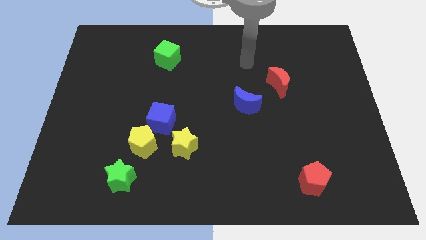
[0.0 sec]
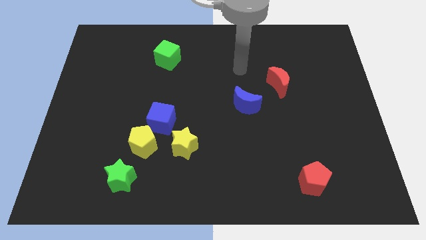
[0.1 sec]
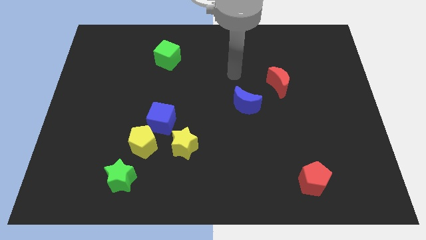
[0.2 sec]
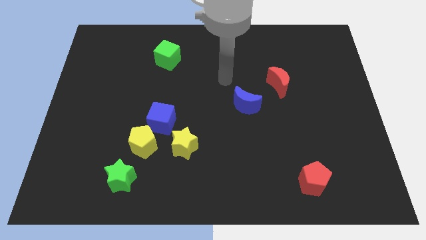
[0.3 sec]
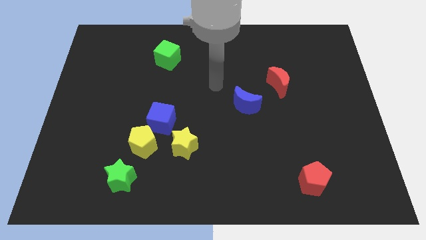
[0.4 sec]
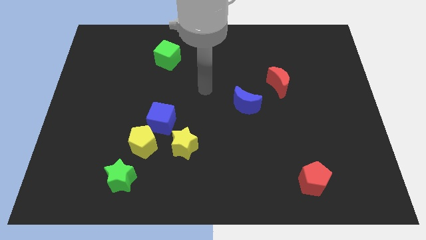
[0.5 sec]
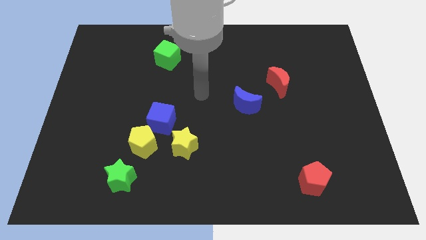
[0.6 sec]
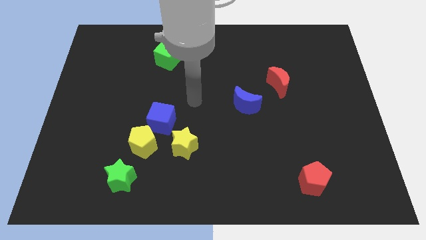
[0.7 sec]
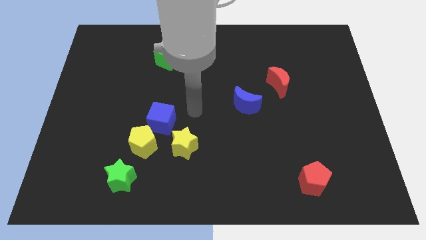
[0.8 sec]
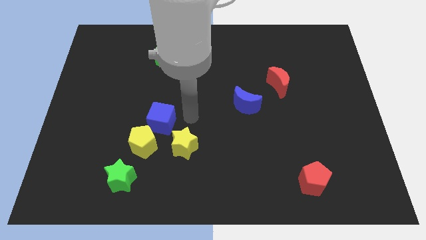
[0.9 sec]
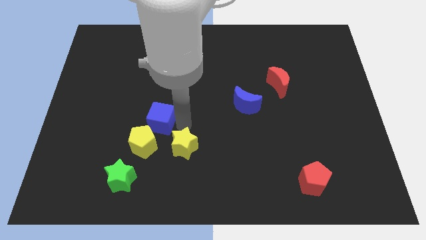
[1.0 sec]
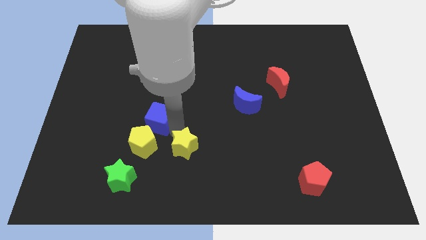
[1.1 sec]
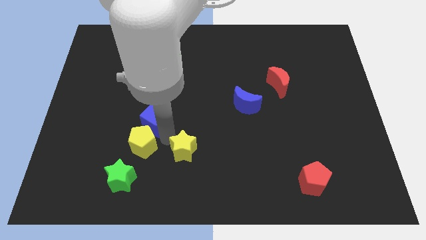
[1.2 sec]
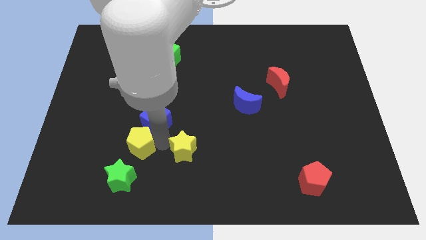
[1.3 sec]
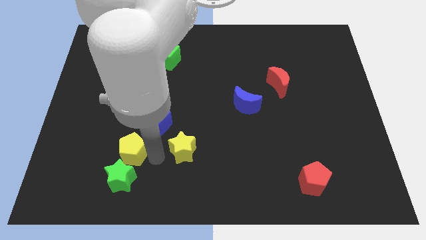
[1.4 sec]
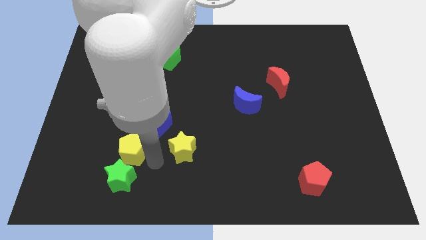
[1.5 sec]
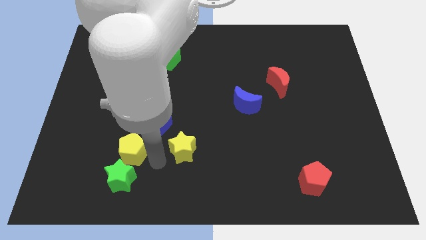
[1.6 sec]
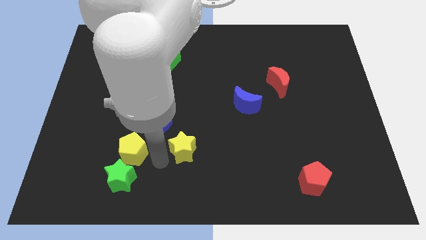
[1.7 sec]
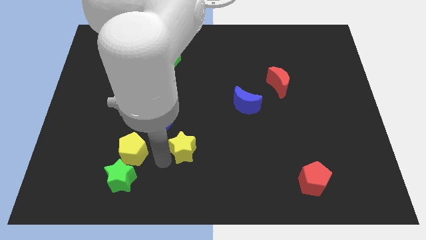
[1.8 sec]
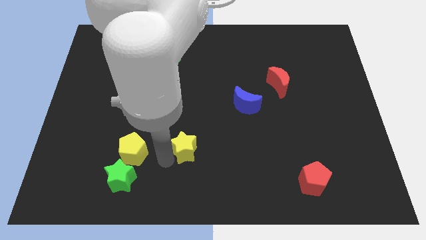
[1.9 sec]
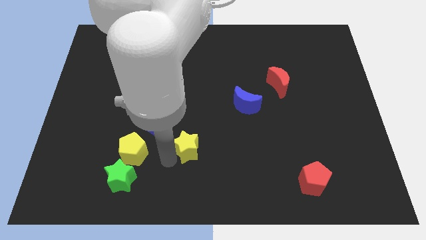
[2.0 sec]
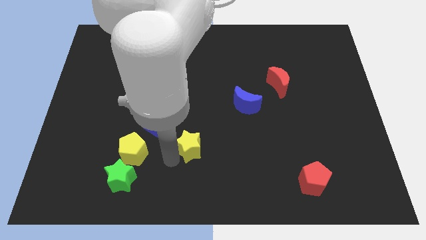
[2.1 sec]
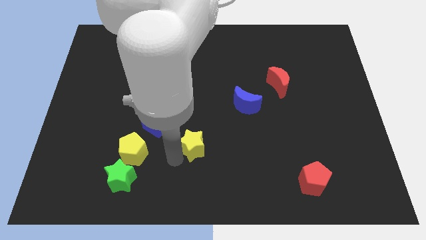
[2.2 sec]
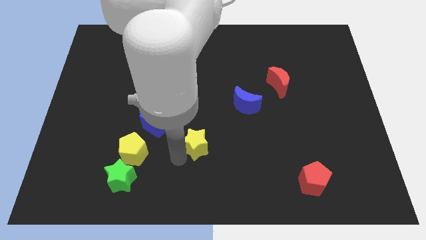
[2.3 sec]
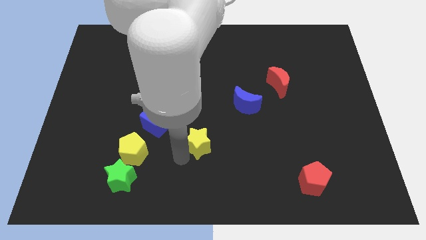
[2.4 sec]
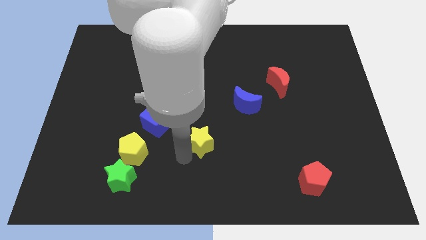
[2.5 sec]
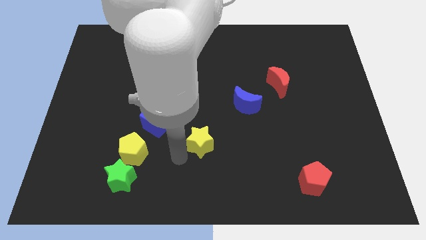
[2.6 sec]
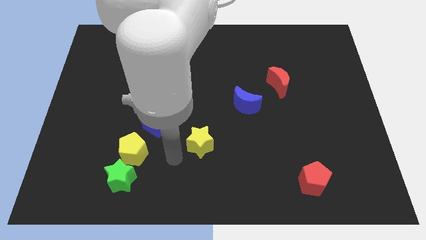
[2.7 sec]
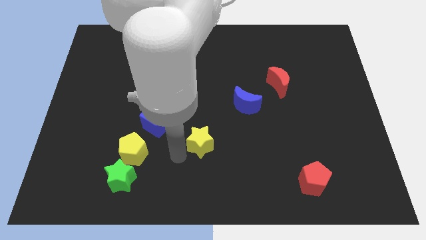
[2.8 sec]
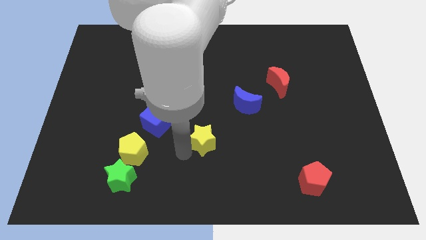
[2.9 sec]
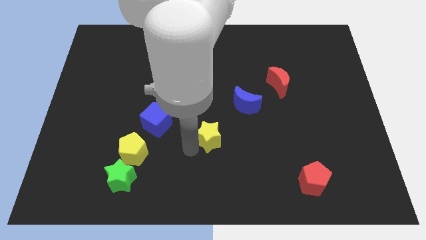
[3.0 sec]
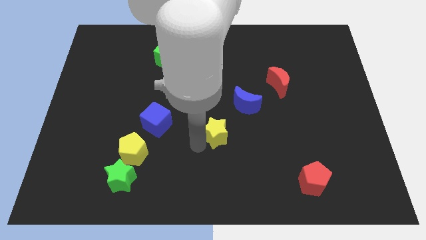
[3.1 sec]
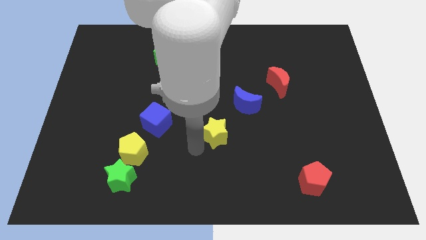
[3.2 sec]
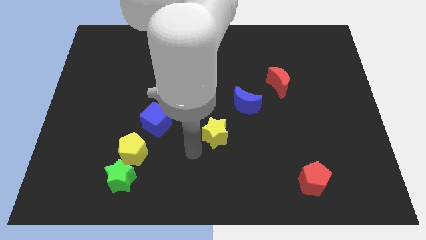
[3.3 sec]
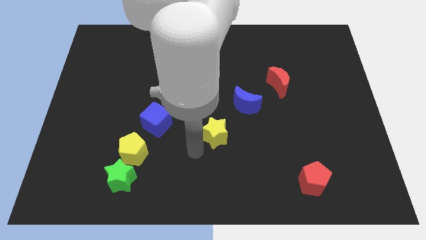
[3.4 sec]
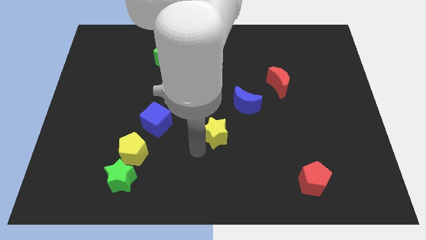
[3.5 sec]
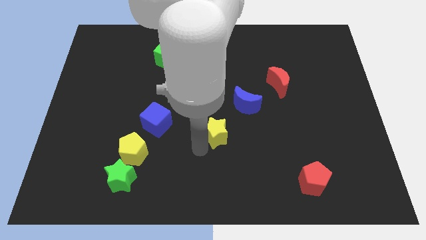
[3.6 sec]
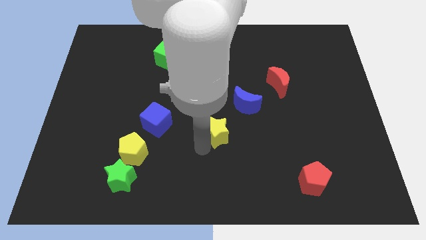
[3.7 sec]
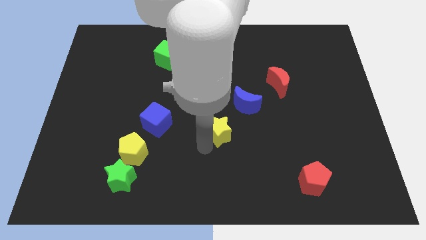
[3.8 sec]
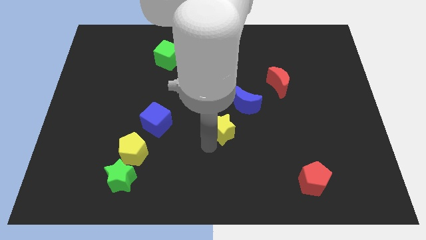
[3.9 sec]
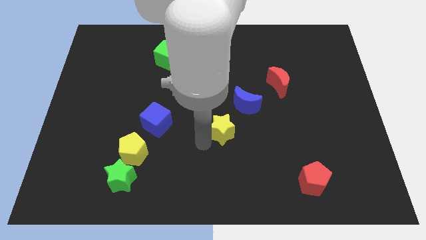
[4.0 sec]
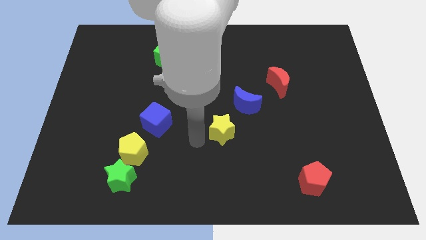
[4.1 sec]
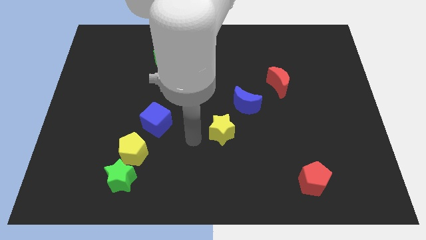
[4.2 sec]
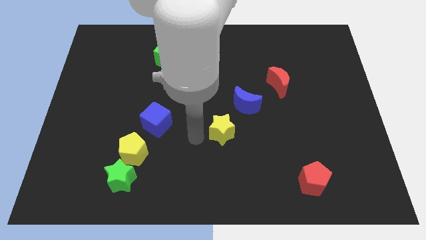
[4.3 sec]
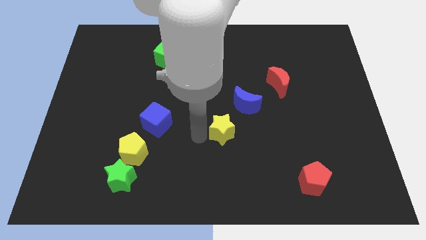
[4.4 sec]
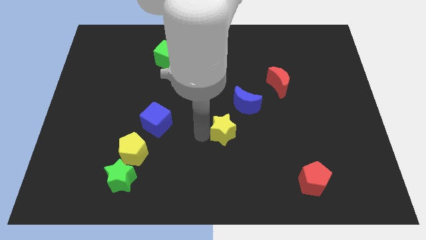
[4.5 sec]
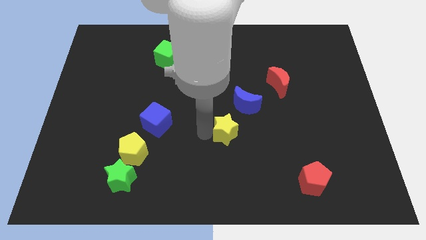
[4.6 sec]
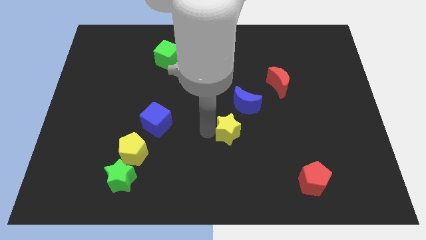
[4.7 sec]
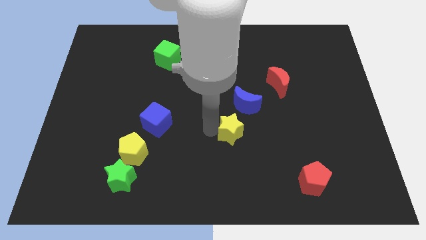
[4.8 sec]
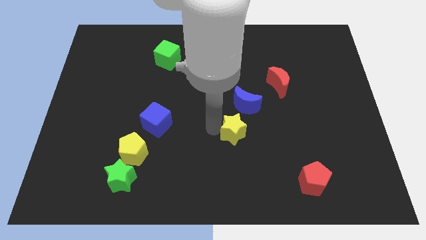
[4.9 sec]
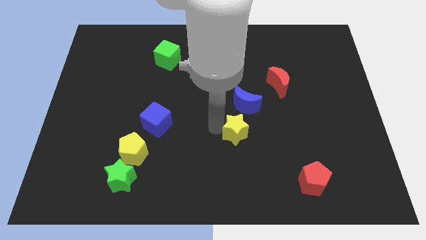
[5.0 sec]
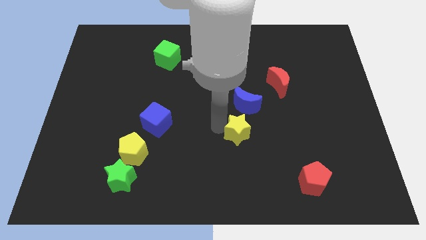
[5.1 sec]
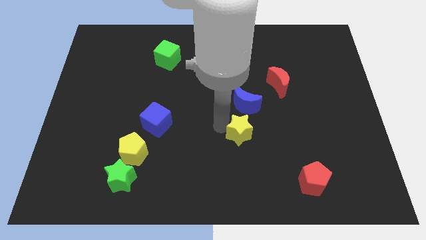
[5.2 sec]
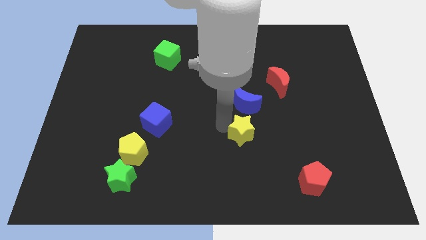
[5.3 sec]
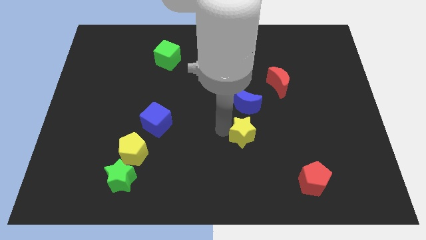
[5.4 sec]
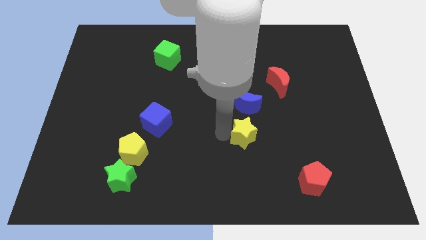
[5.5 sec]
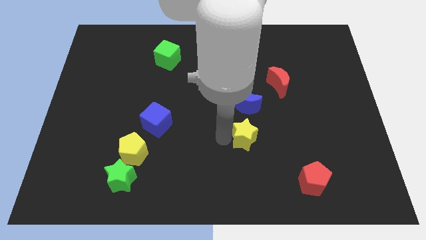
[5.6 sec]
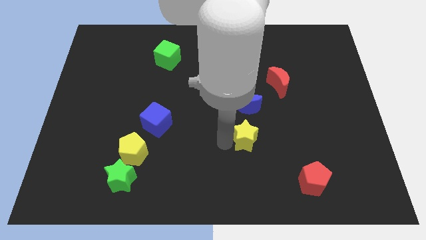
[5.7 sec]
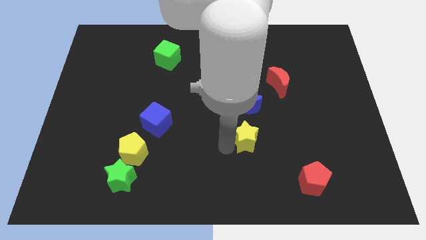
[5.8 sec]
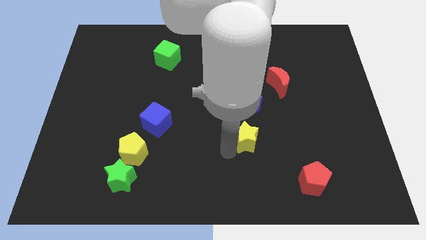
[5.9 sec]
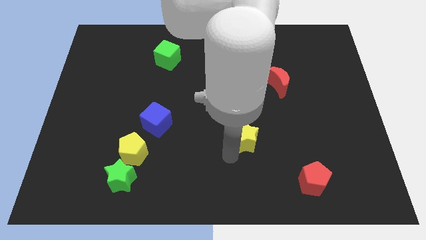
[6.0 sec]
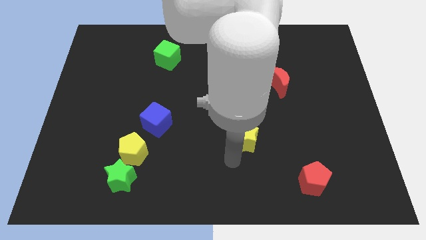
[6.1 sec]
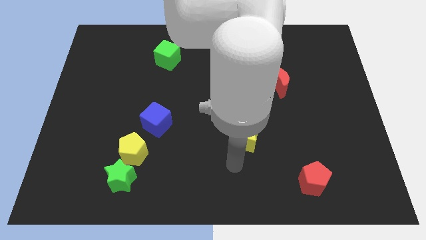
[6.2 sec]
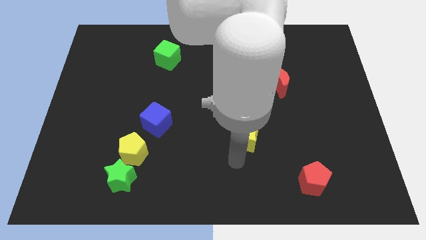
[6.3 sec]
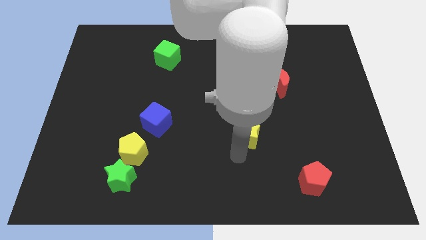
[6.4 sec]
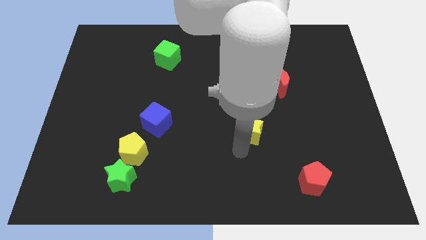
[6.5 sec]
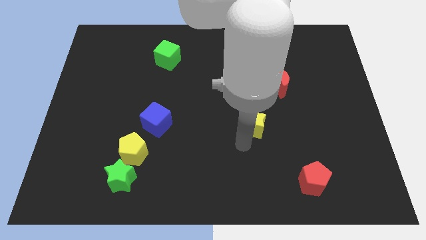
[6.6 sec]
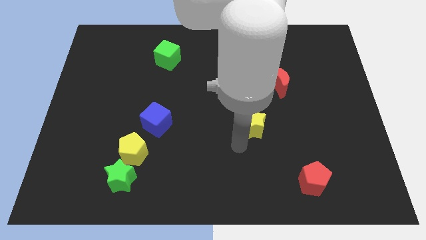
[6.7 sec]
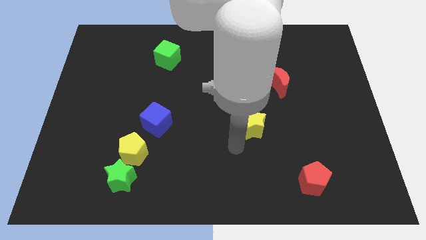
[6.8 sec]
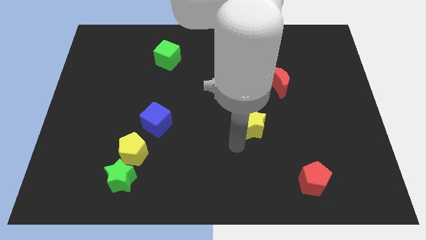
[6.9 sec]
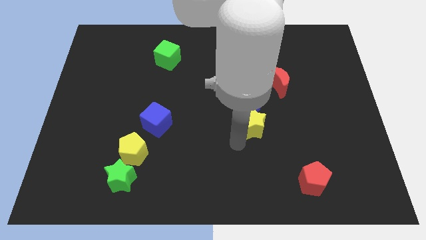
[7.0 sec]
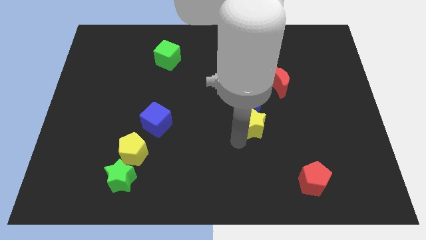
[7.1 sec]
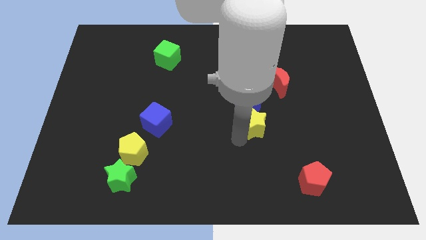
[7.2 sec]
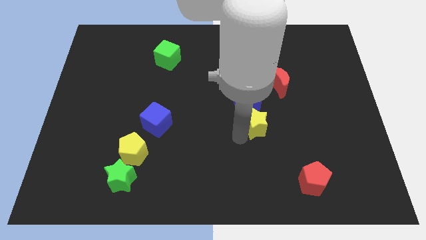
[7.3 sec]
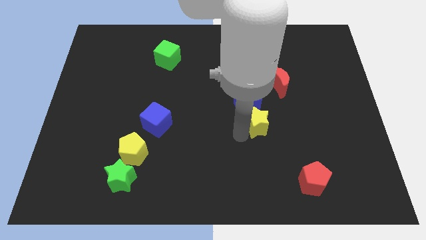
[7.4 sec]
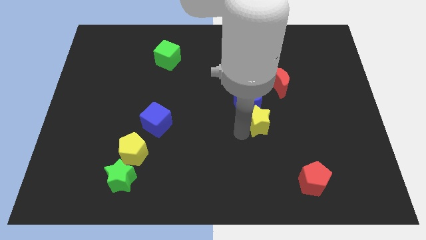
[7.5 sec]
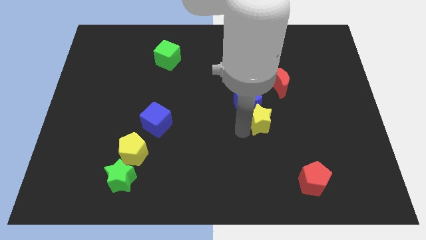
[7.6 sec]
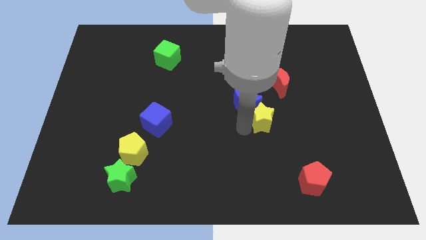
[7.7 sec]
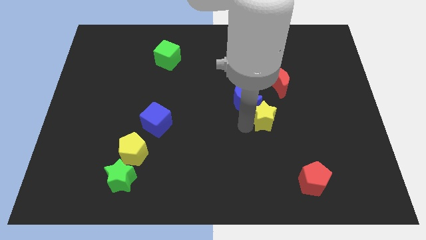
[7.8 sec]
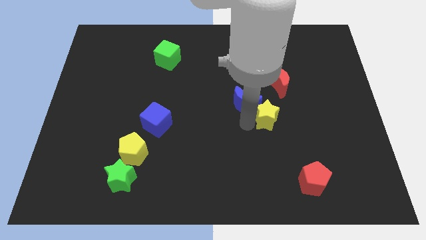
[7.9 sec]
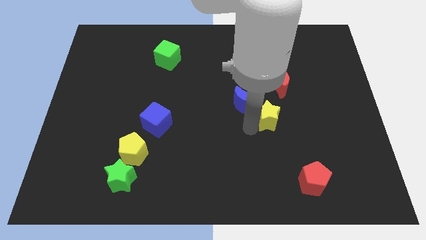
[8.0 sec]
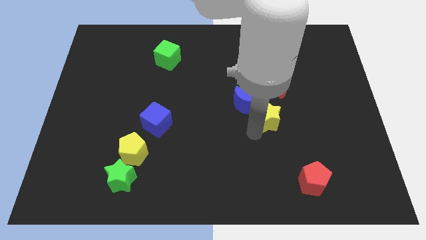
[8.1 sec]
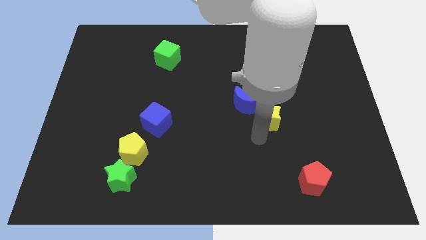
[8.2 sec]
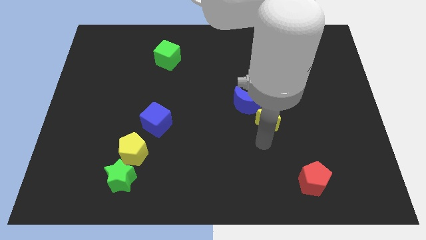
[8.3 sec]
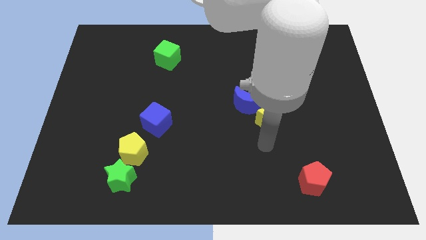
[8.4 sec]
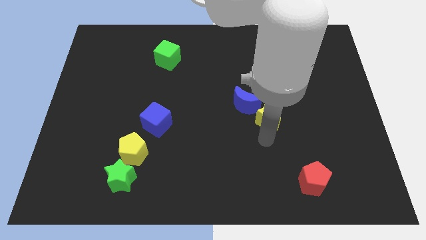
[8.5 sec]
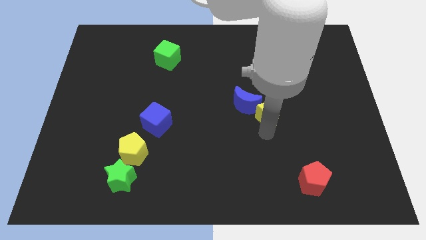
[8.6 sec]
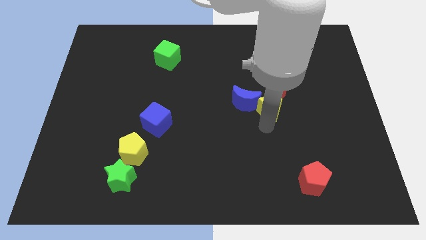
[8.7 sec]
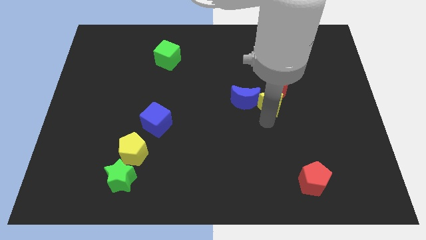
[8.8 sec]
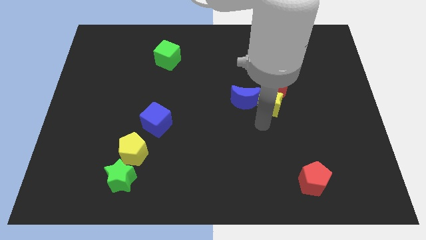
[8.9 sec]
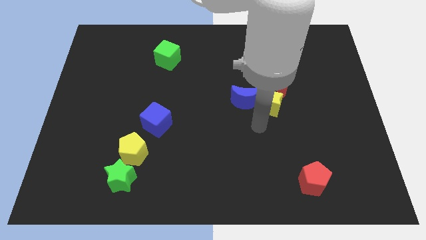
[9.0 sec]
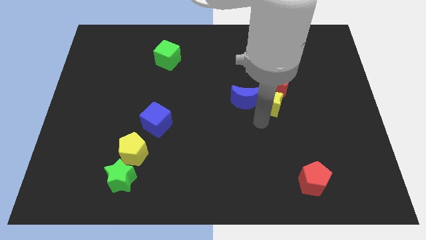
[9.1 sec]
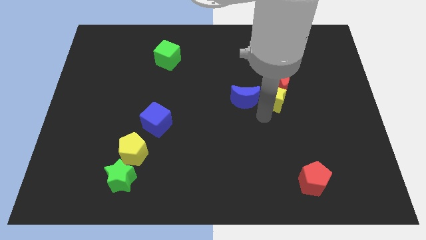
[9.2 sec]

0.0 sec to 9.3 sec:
put the yellow star towards the red moon
